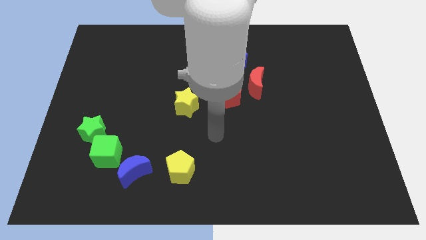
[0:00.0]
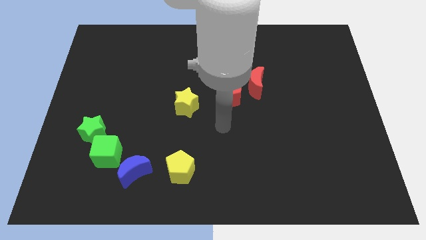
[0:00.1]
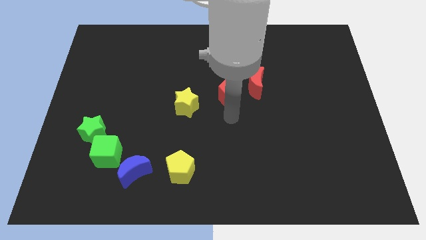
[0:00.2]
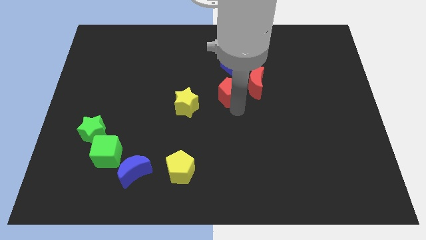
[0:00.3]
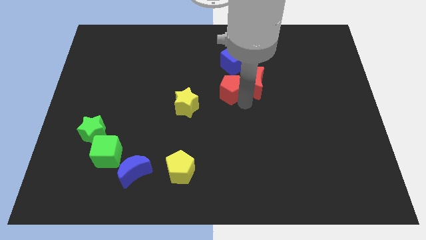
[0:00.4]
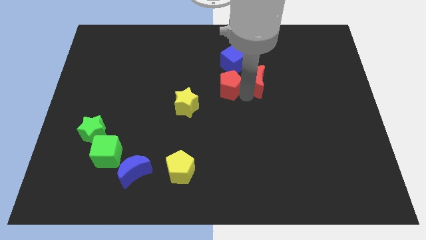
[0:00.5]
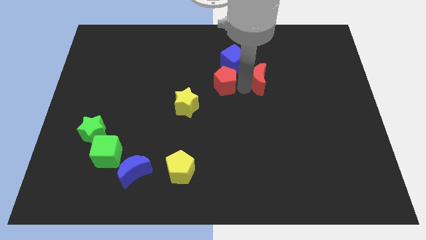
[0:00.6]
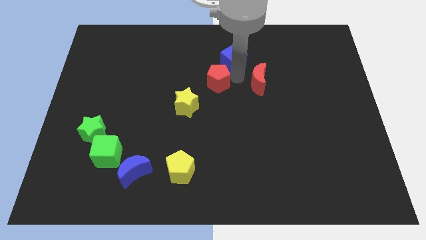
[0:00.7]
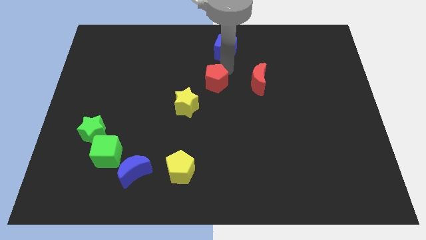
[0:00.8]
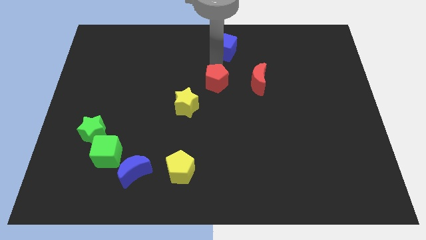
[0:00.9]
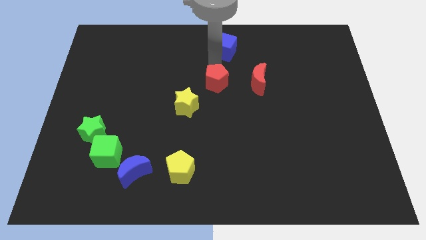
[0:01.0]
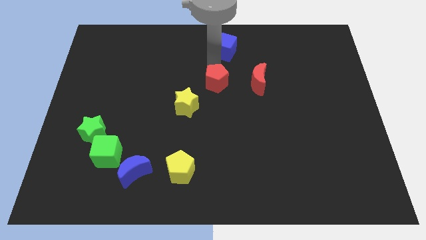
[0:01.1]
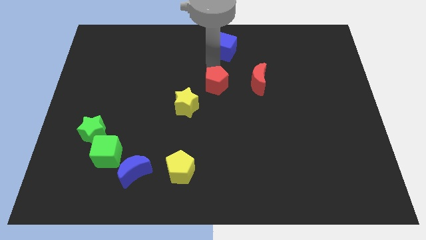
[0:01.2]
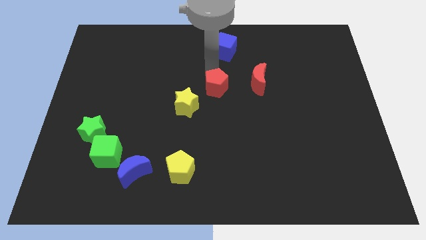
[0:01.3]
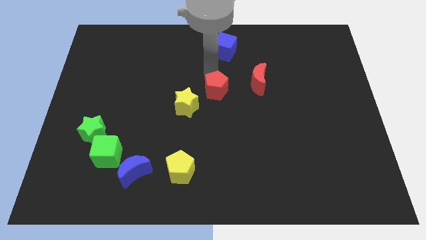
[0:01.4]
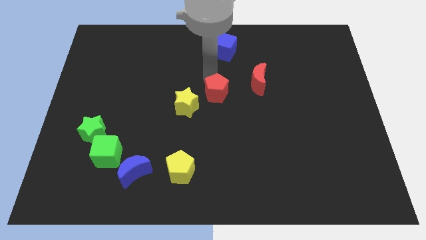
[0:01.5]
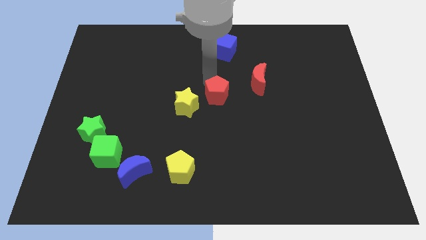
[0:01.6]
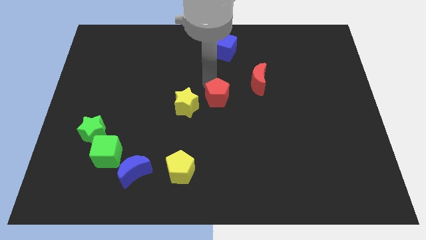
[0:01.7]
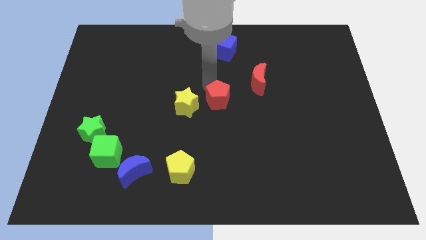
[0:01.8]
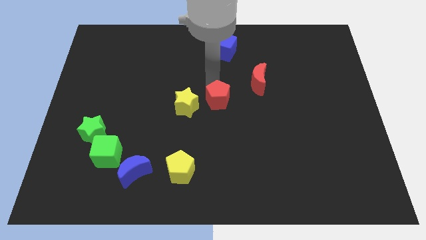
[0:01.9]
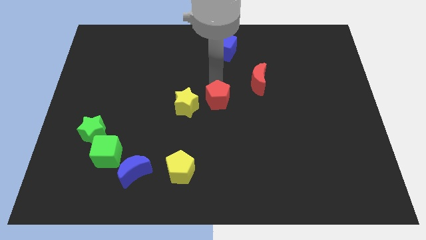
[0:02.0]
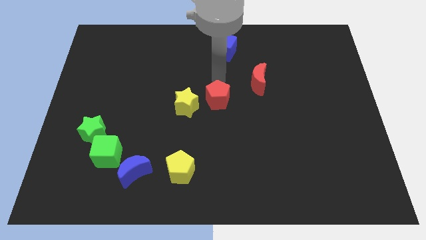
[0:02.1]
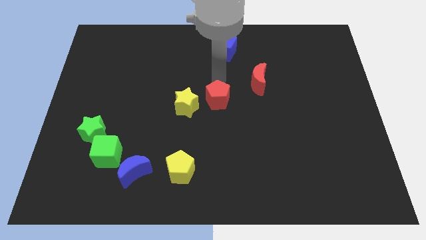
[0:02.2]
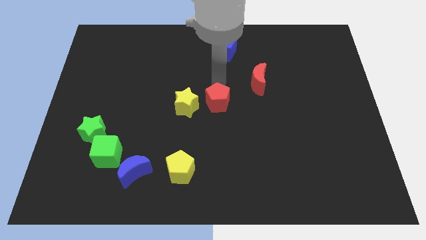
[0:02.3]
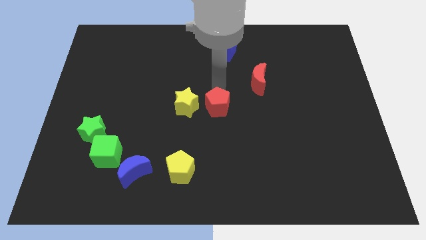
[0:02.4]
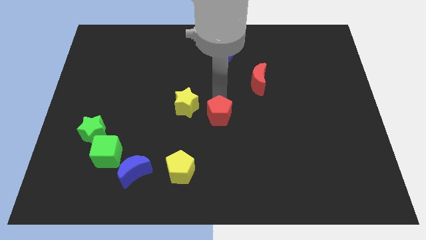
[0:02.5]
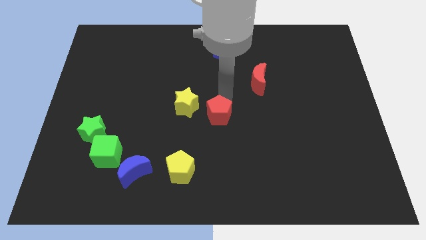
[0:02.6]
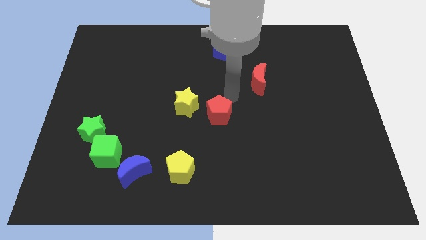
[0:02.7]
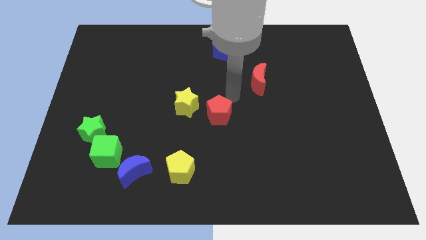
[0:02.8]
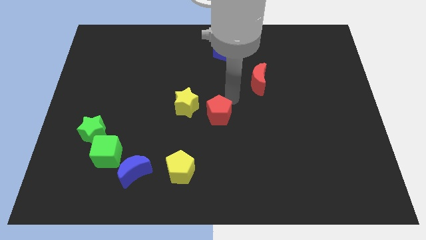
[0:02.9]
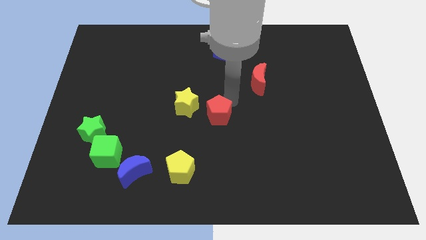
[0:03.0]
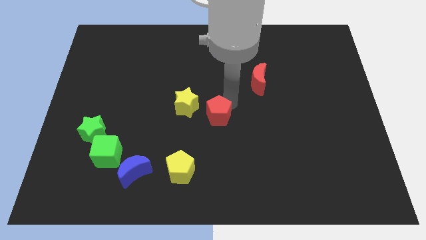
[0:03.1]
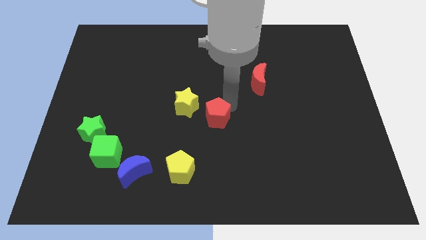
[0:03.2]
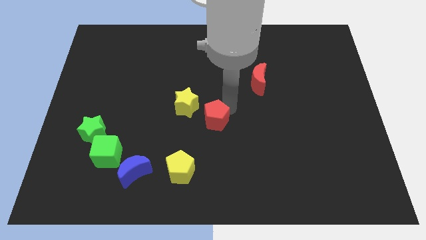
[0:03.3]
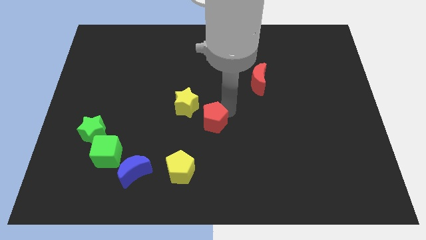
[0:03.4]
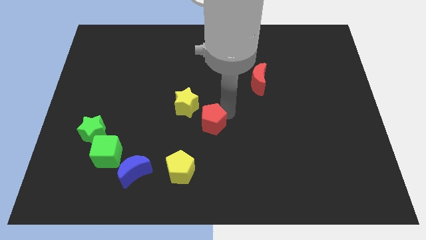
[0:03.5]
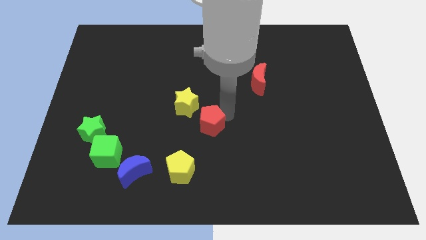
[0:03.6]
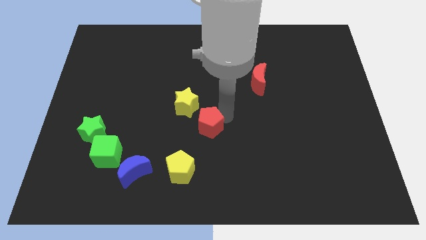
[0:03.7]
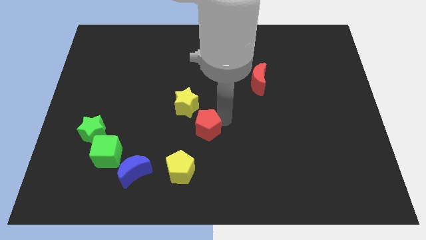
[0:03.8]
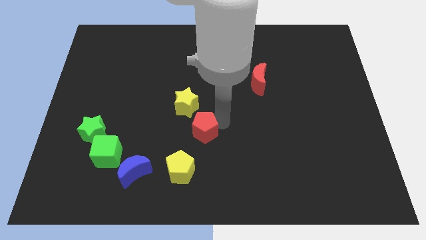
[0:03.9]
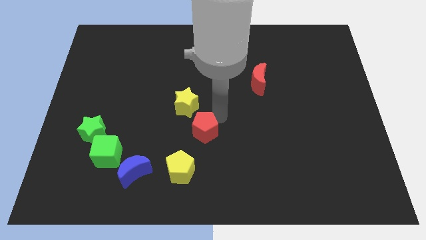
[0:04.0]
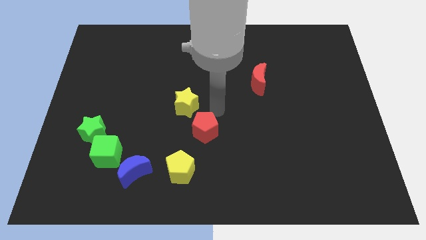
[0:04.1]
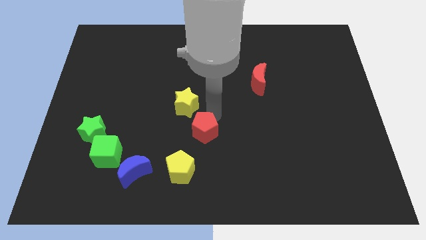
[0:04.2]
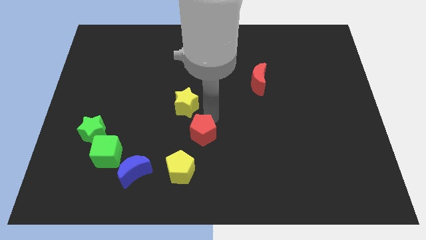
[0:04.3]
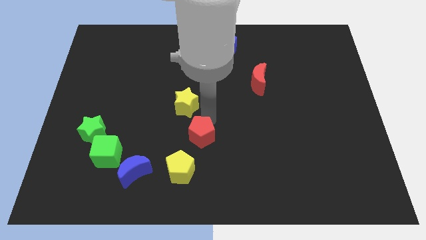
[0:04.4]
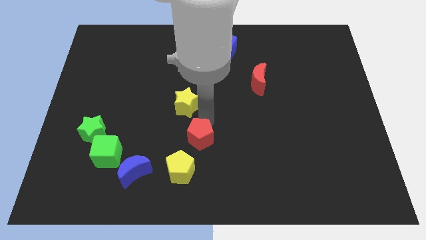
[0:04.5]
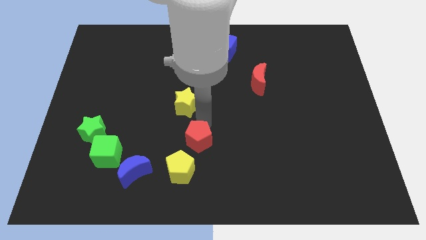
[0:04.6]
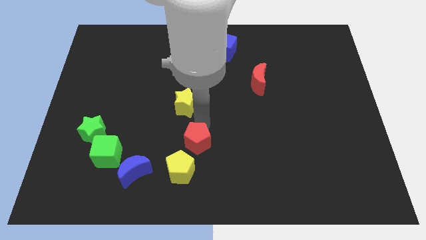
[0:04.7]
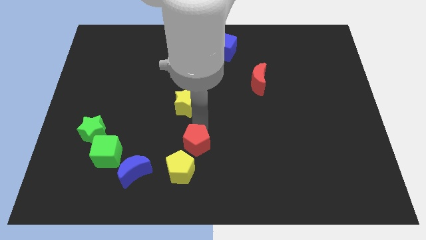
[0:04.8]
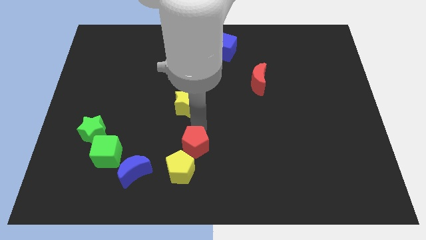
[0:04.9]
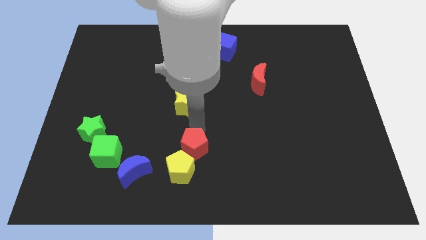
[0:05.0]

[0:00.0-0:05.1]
put the red pentagon close to the yellow pentagon

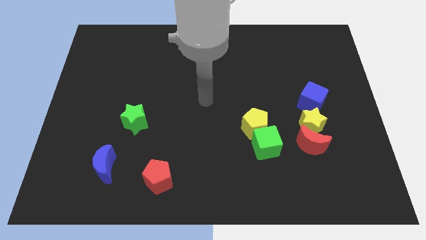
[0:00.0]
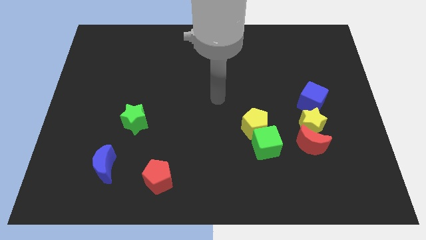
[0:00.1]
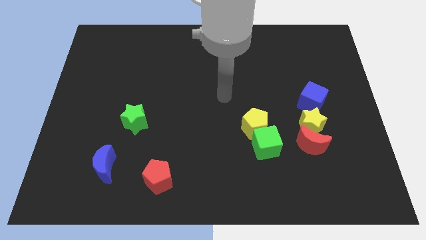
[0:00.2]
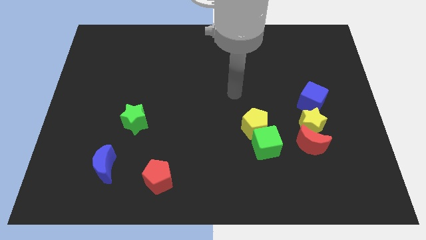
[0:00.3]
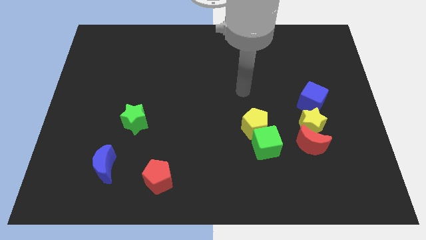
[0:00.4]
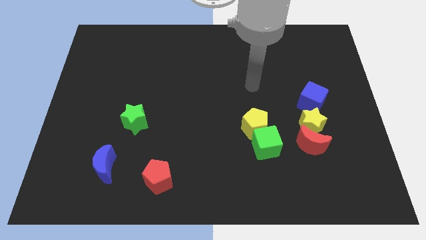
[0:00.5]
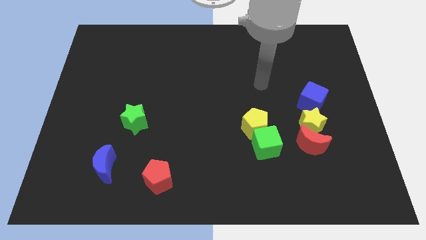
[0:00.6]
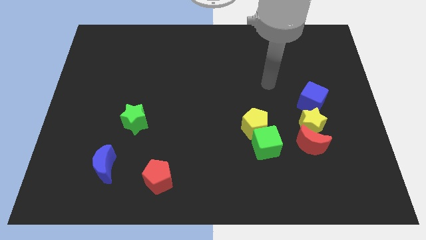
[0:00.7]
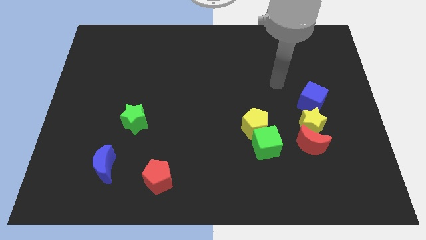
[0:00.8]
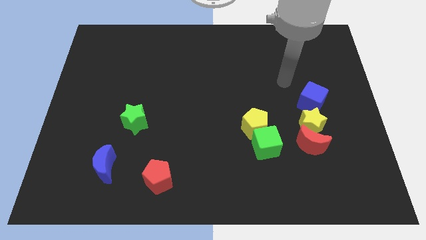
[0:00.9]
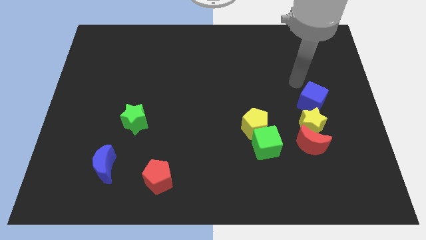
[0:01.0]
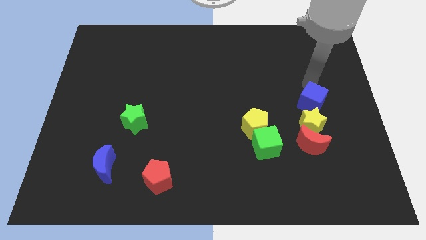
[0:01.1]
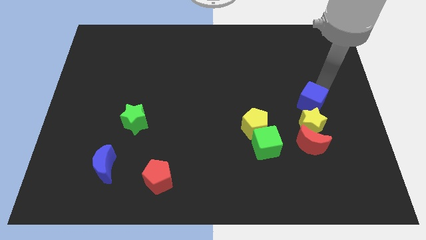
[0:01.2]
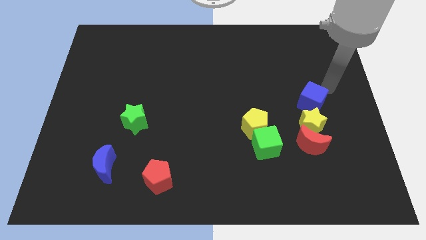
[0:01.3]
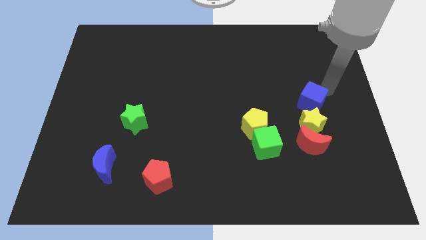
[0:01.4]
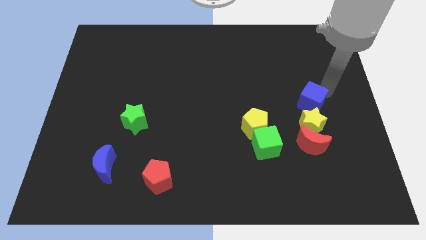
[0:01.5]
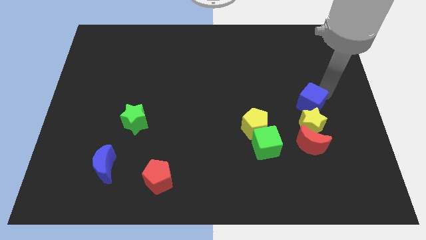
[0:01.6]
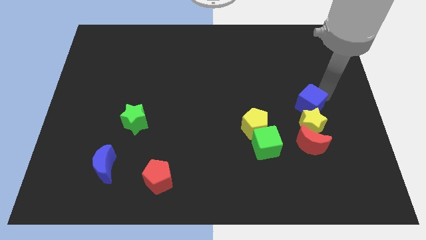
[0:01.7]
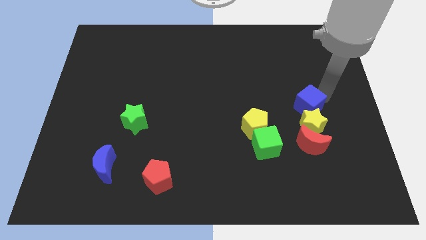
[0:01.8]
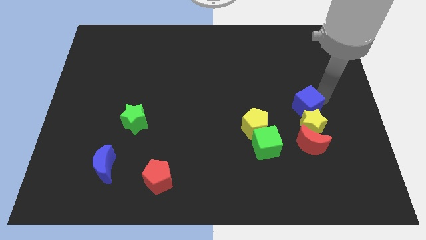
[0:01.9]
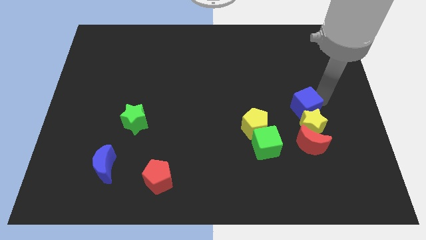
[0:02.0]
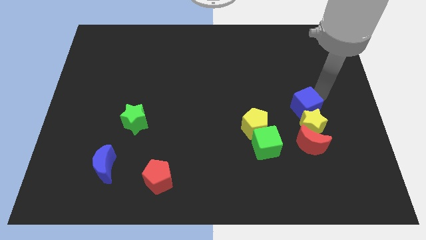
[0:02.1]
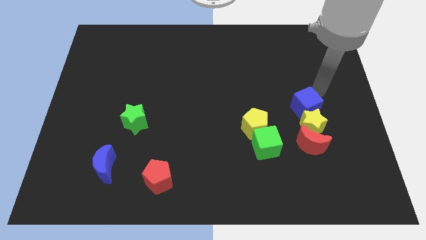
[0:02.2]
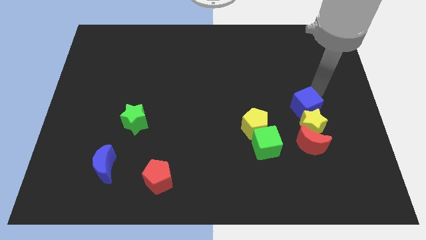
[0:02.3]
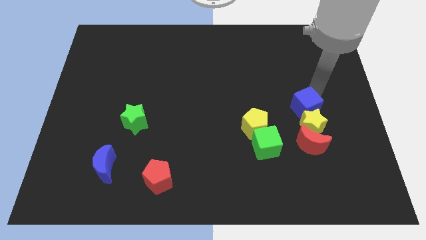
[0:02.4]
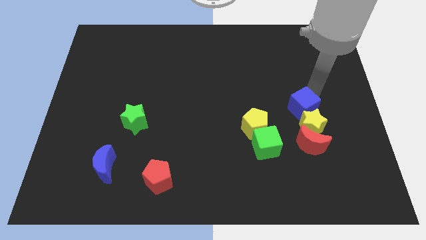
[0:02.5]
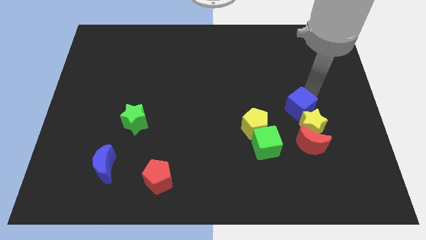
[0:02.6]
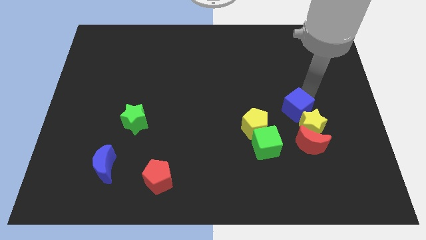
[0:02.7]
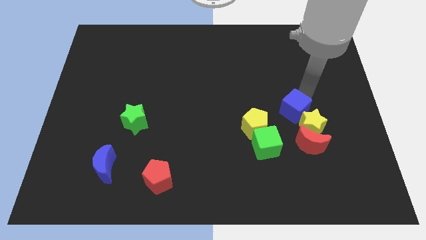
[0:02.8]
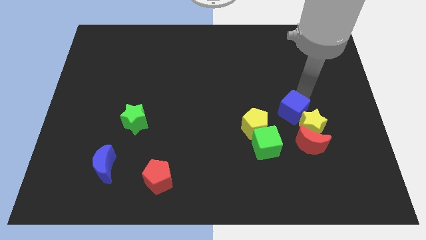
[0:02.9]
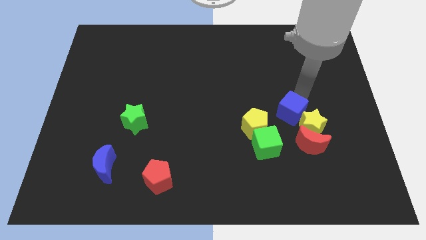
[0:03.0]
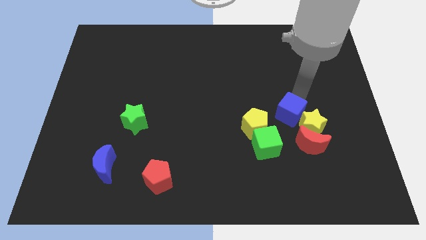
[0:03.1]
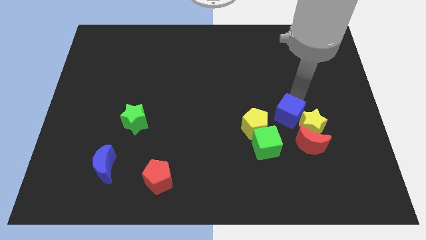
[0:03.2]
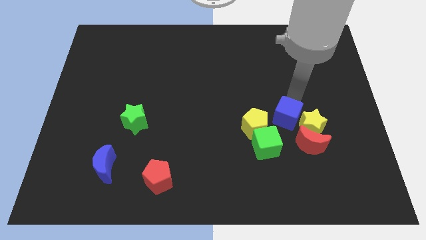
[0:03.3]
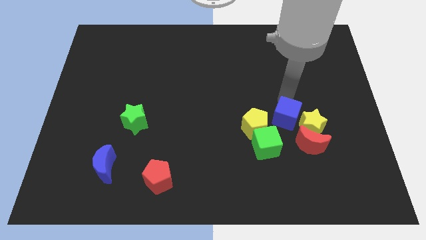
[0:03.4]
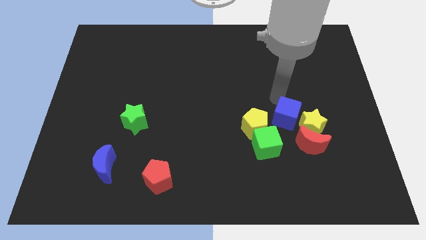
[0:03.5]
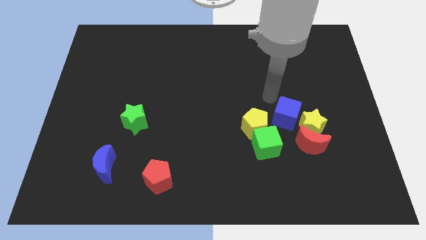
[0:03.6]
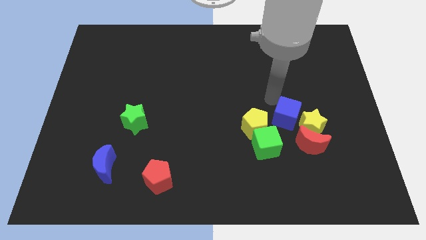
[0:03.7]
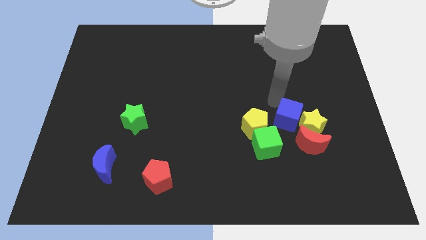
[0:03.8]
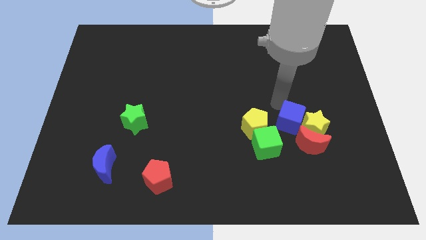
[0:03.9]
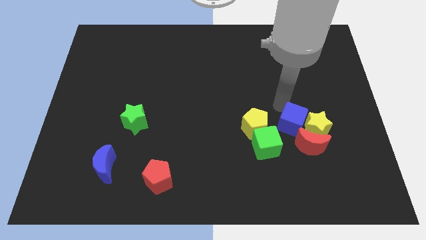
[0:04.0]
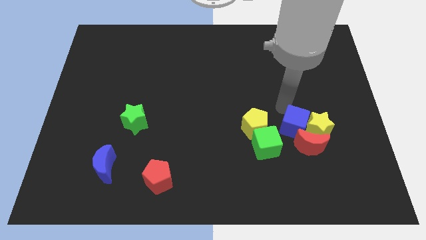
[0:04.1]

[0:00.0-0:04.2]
slide the blue cube to the red moon
